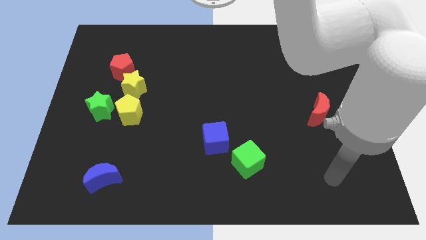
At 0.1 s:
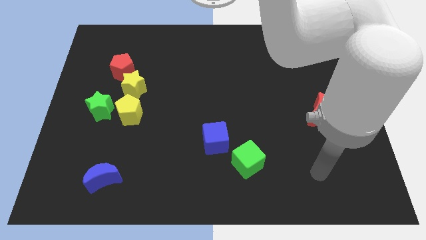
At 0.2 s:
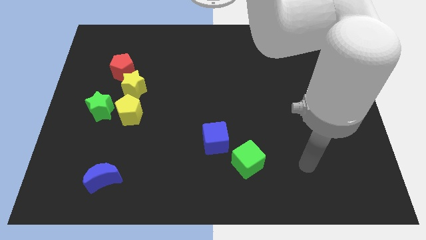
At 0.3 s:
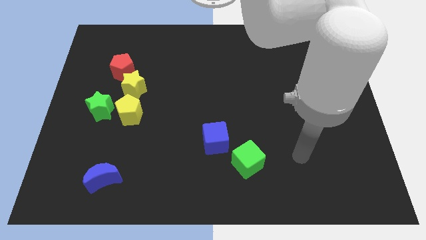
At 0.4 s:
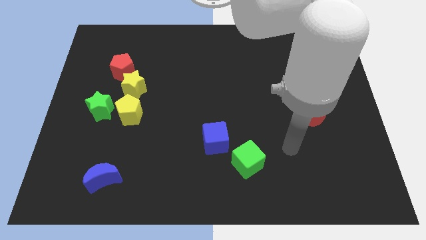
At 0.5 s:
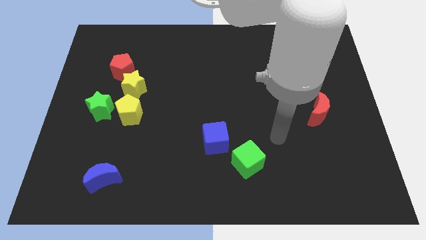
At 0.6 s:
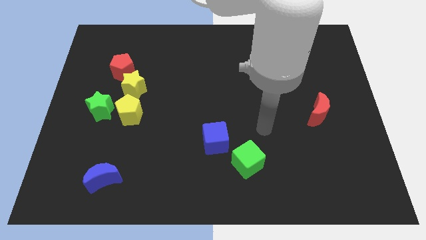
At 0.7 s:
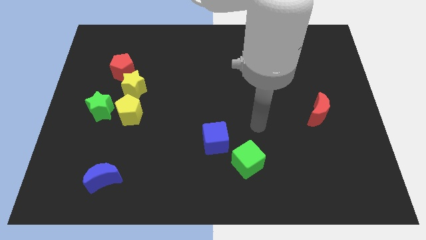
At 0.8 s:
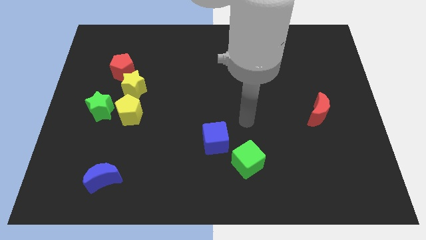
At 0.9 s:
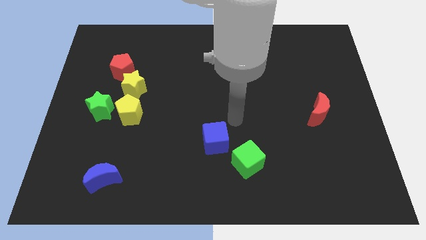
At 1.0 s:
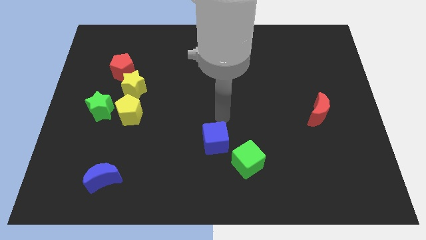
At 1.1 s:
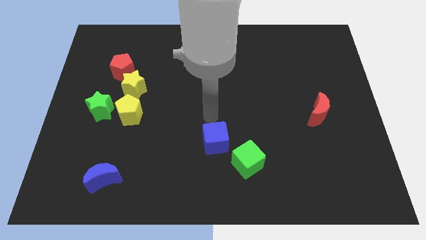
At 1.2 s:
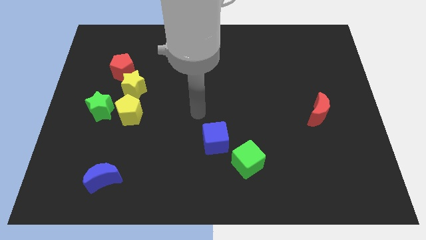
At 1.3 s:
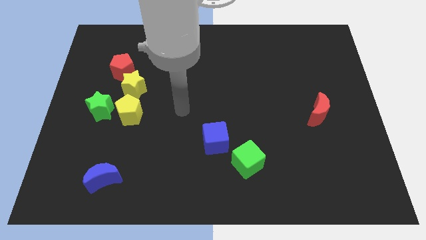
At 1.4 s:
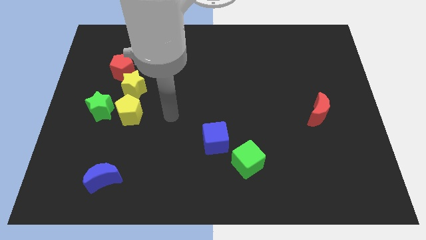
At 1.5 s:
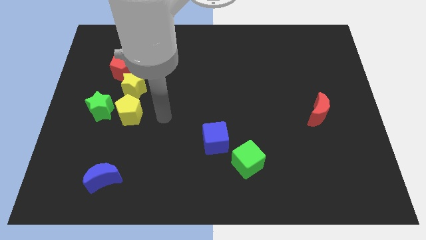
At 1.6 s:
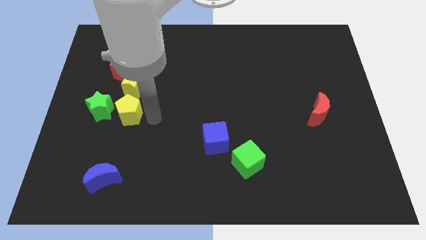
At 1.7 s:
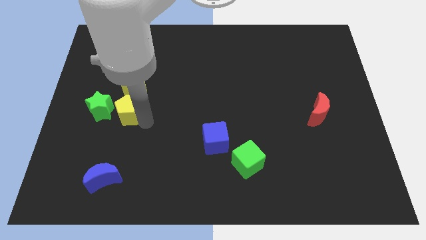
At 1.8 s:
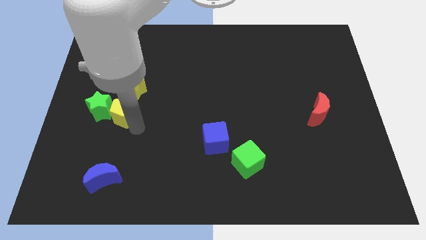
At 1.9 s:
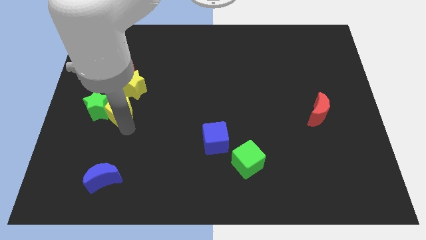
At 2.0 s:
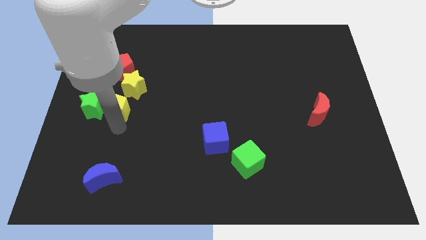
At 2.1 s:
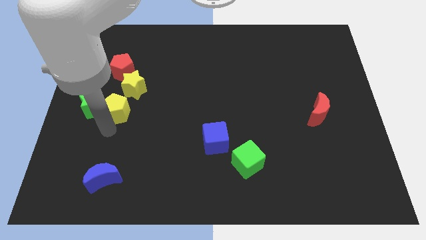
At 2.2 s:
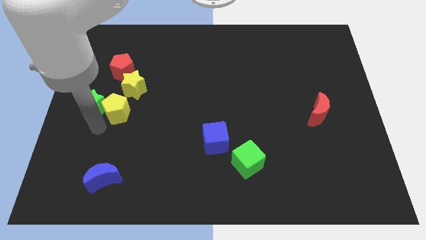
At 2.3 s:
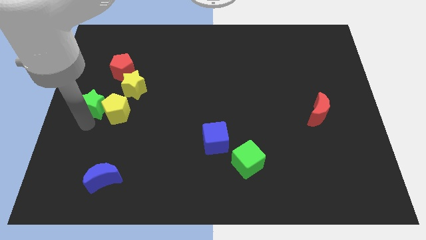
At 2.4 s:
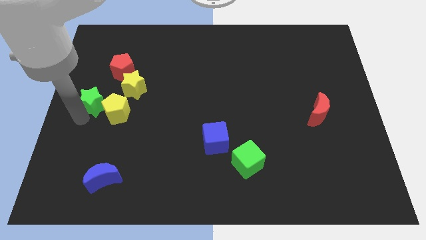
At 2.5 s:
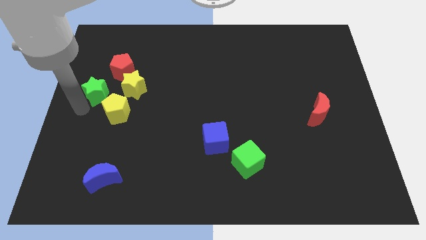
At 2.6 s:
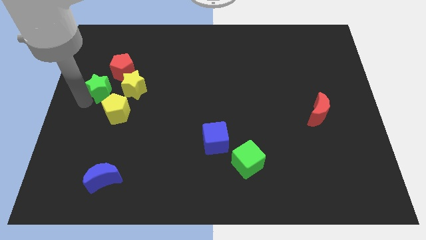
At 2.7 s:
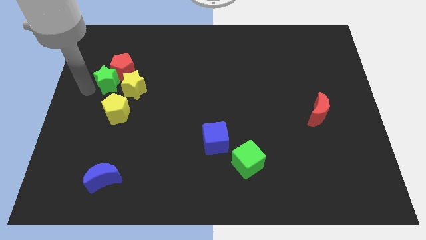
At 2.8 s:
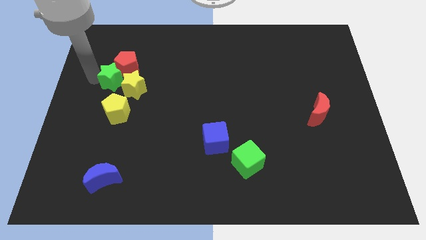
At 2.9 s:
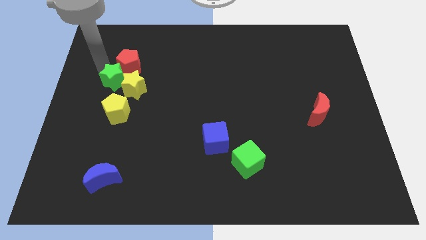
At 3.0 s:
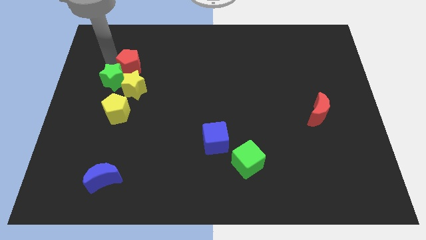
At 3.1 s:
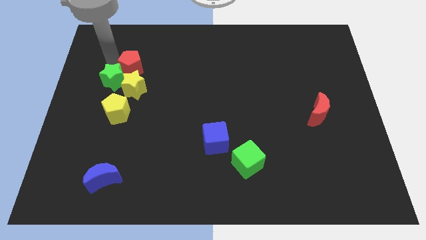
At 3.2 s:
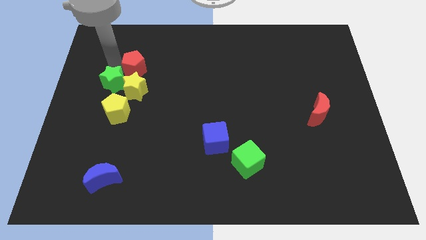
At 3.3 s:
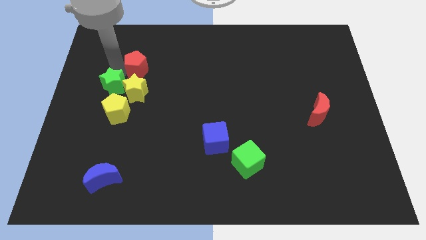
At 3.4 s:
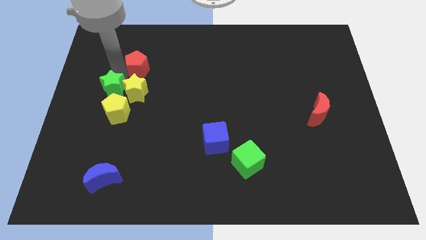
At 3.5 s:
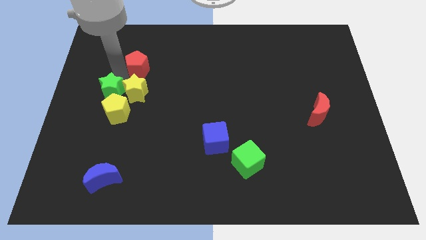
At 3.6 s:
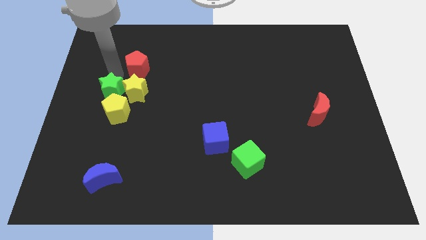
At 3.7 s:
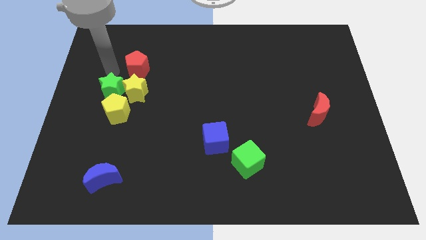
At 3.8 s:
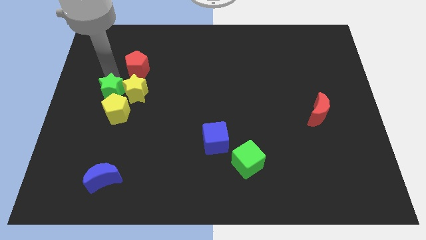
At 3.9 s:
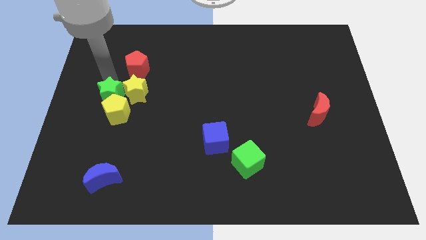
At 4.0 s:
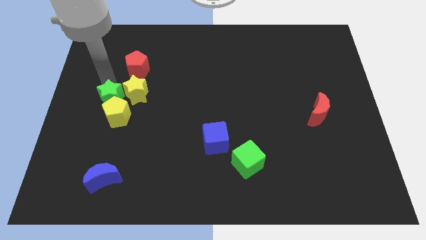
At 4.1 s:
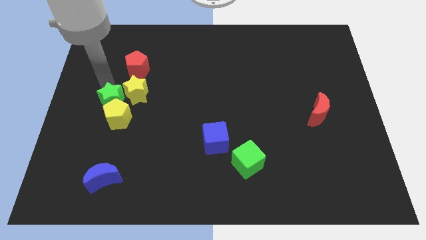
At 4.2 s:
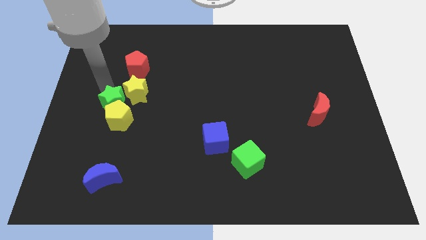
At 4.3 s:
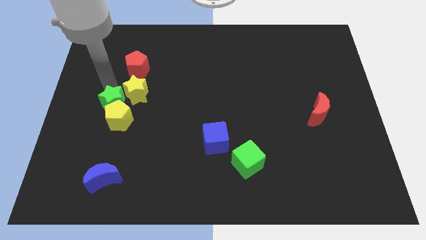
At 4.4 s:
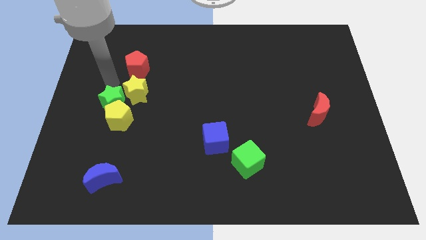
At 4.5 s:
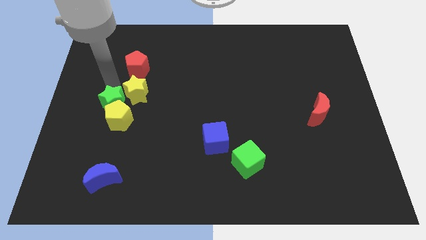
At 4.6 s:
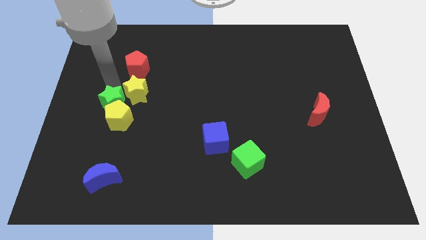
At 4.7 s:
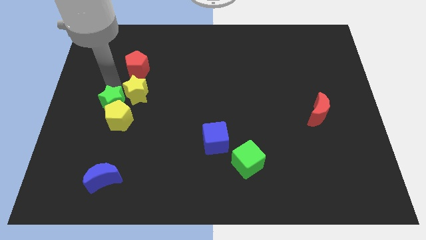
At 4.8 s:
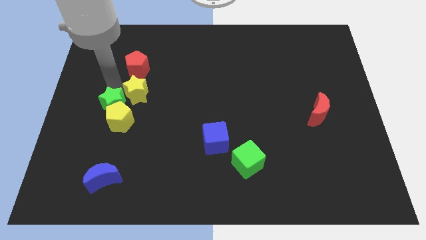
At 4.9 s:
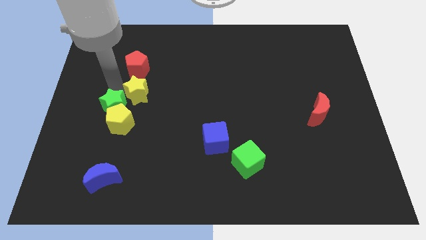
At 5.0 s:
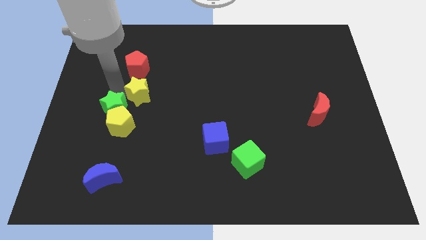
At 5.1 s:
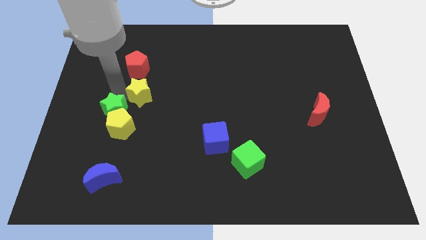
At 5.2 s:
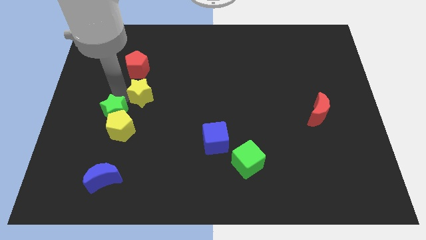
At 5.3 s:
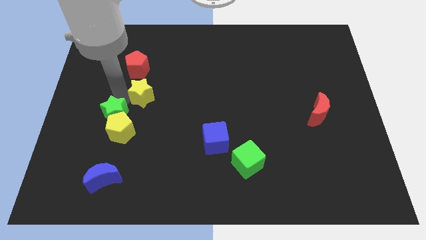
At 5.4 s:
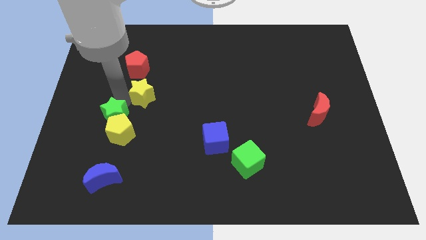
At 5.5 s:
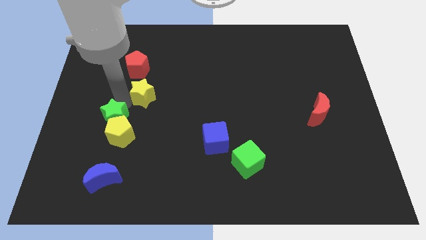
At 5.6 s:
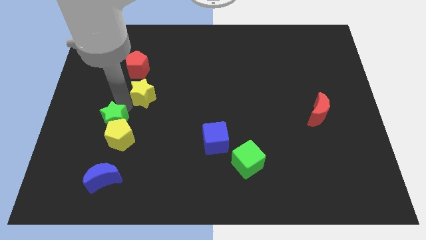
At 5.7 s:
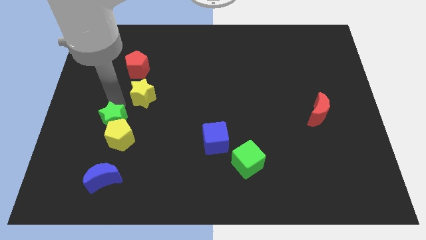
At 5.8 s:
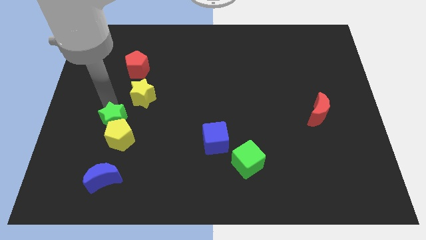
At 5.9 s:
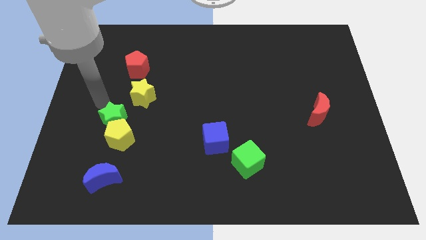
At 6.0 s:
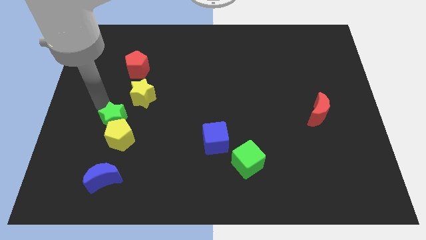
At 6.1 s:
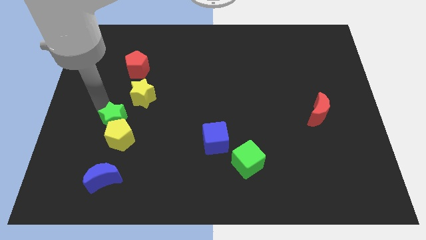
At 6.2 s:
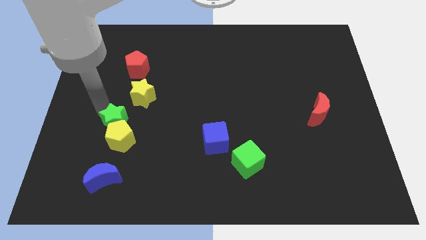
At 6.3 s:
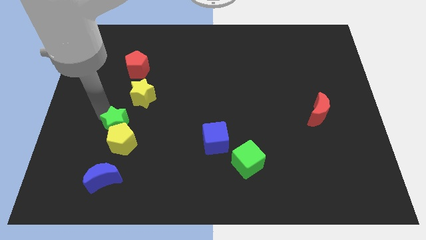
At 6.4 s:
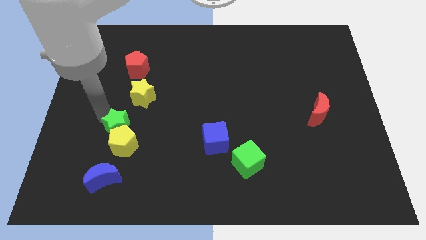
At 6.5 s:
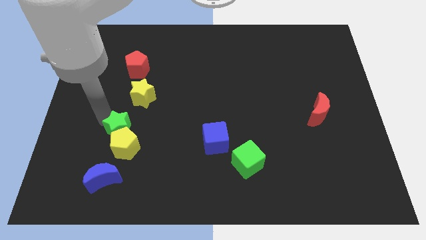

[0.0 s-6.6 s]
slide the green star downwards and right slightly

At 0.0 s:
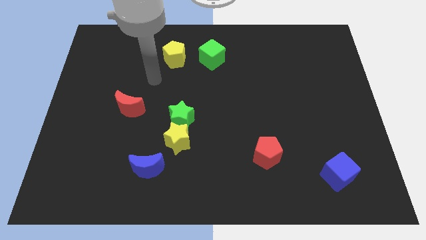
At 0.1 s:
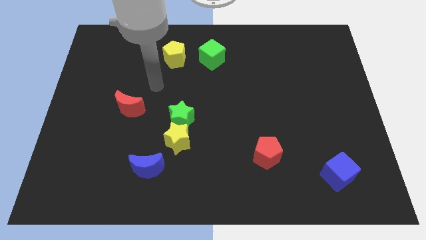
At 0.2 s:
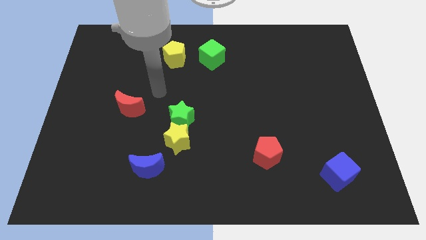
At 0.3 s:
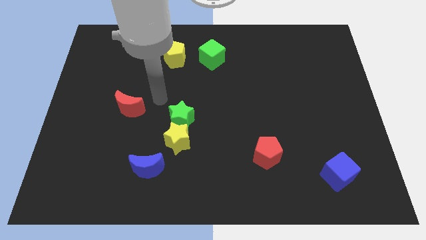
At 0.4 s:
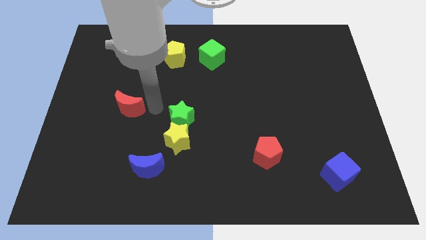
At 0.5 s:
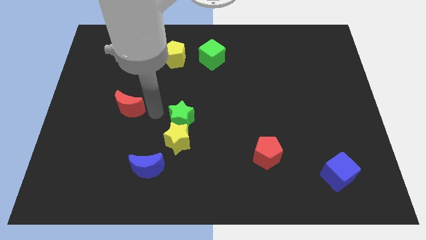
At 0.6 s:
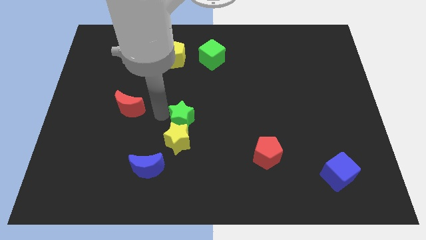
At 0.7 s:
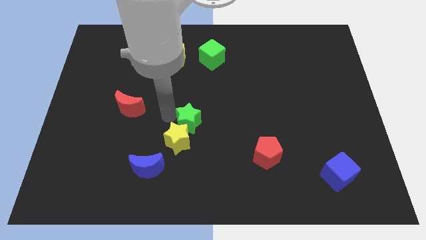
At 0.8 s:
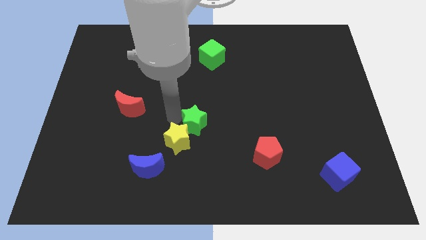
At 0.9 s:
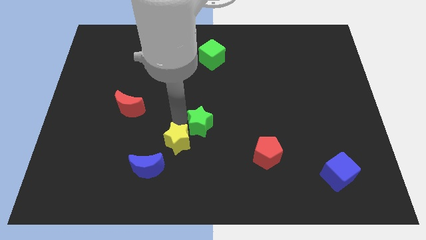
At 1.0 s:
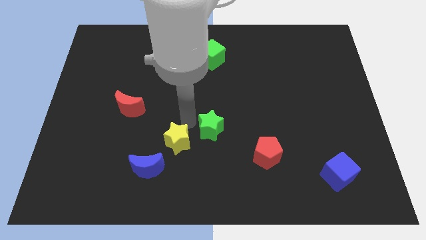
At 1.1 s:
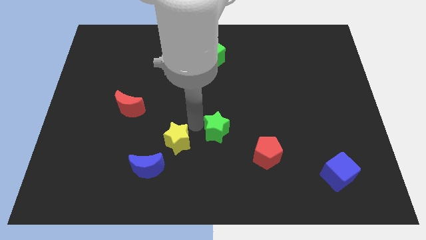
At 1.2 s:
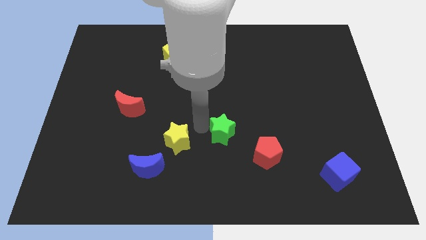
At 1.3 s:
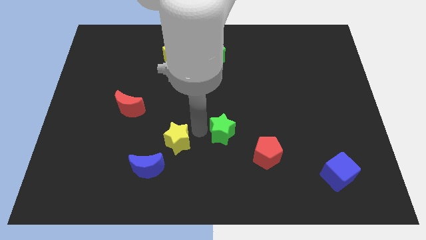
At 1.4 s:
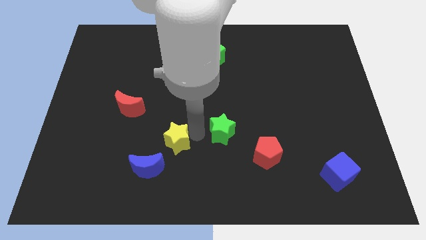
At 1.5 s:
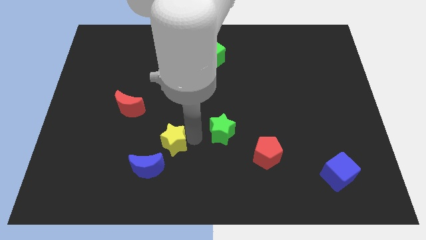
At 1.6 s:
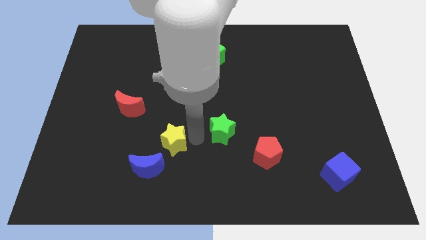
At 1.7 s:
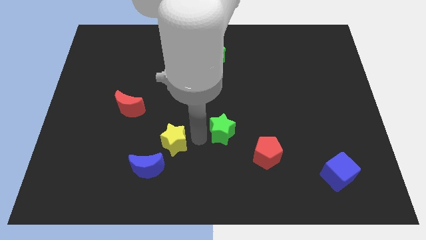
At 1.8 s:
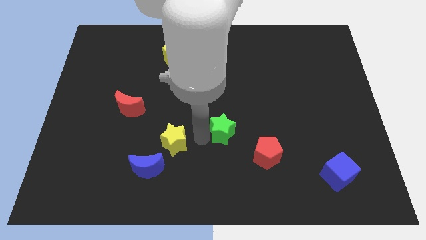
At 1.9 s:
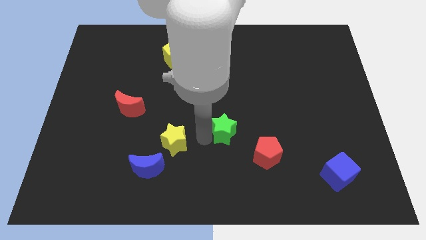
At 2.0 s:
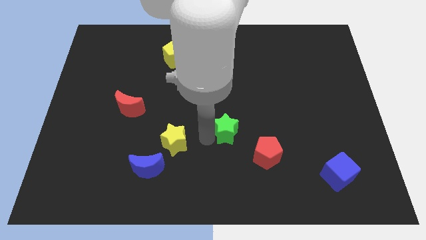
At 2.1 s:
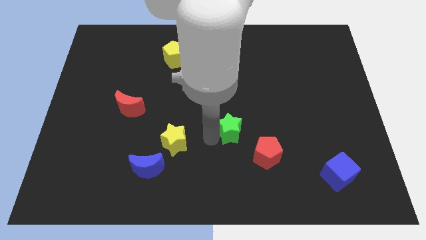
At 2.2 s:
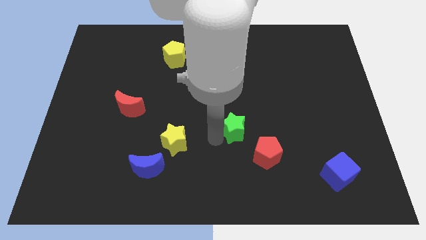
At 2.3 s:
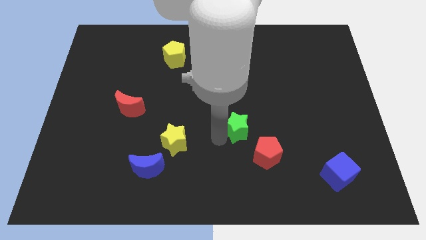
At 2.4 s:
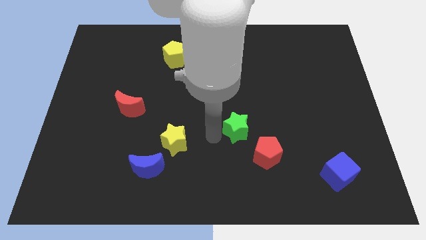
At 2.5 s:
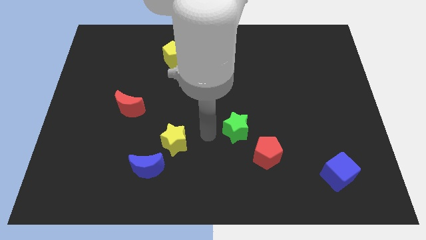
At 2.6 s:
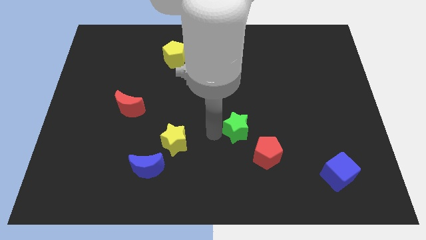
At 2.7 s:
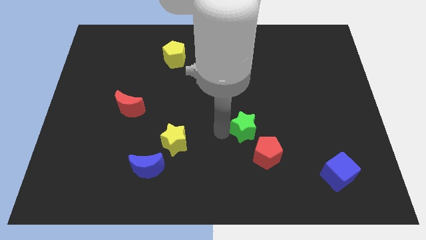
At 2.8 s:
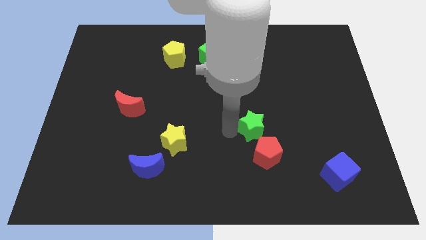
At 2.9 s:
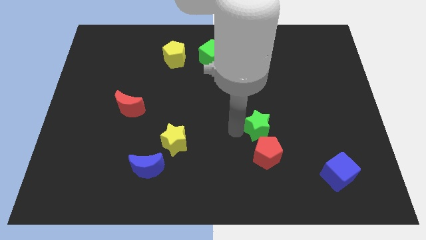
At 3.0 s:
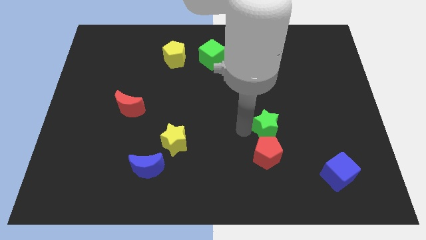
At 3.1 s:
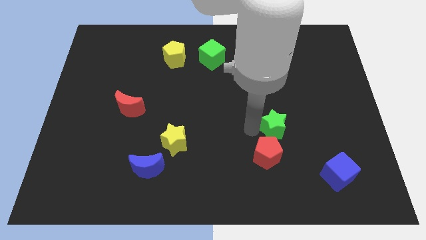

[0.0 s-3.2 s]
move the green star to the right
